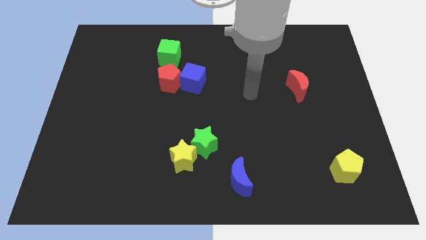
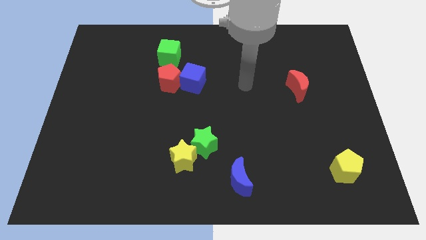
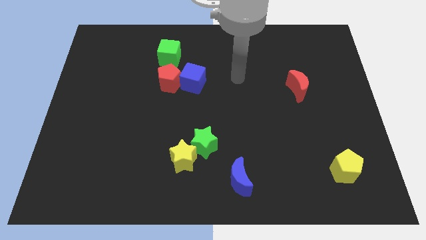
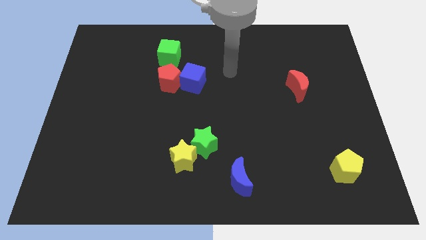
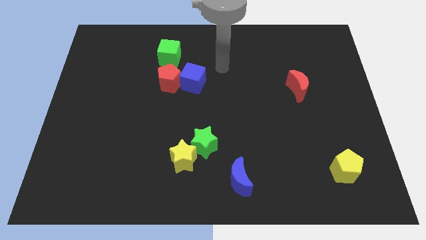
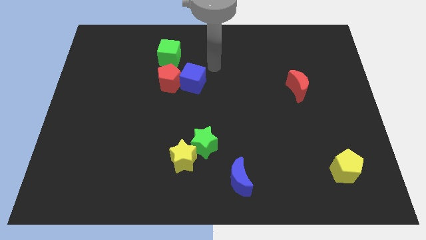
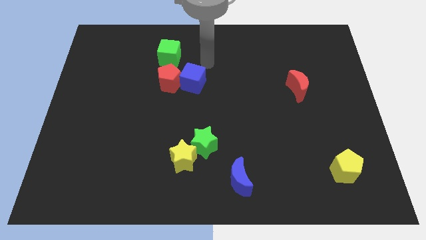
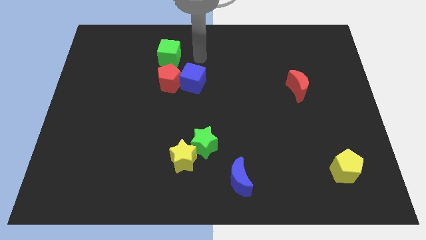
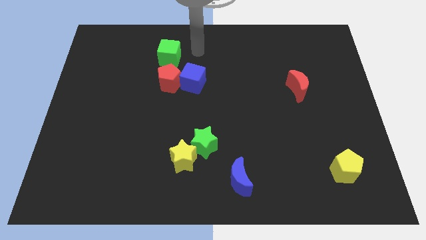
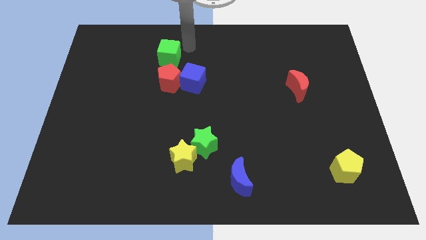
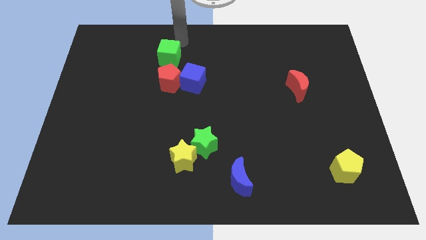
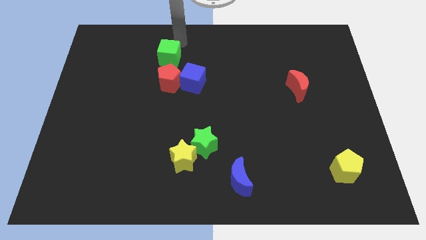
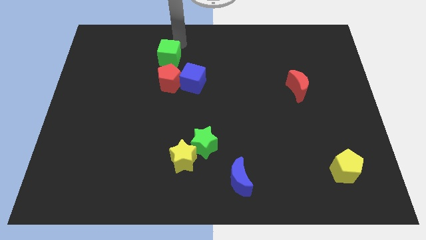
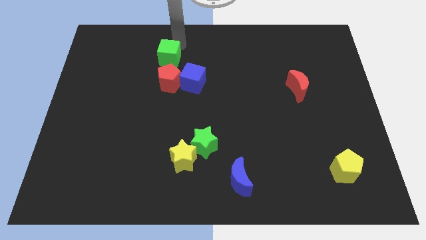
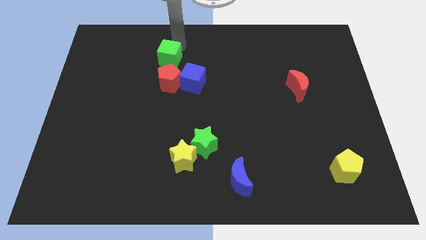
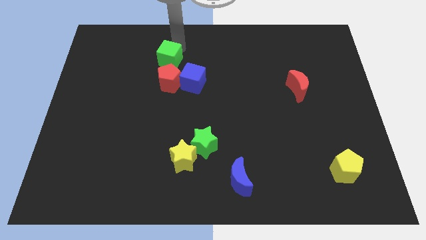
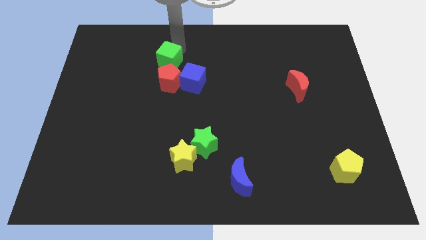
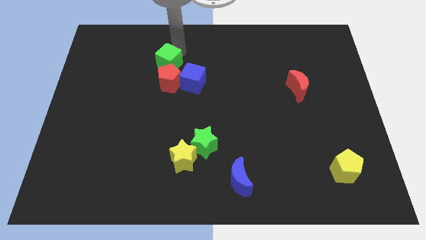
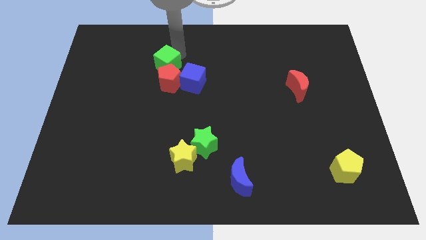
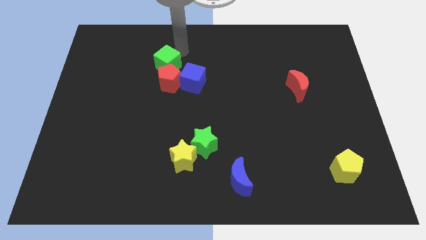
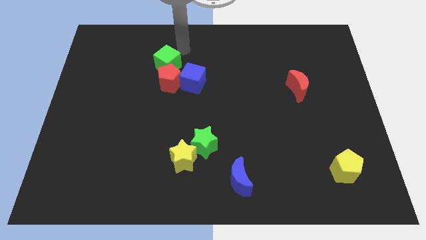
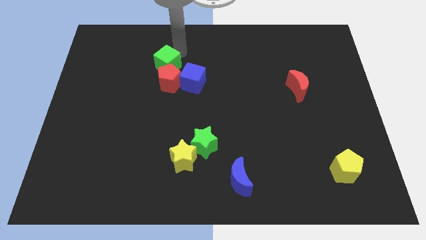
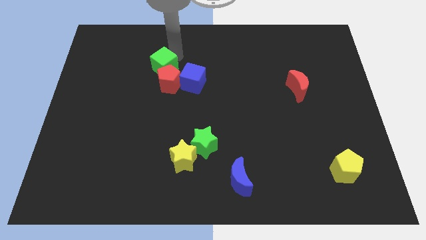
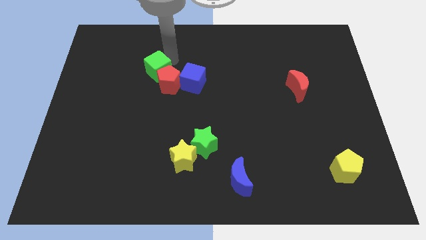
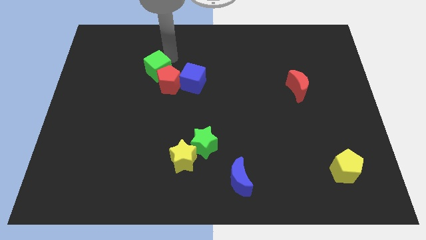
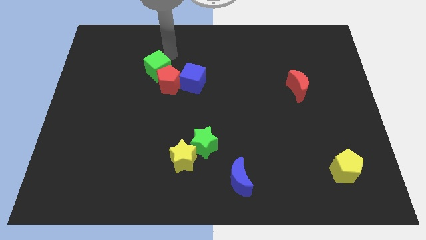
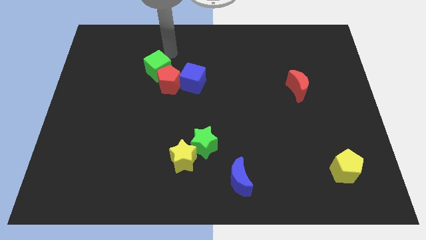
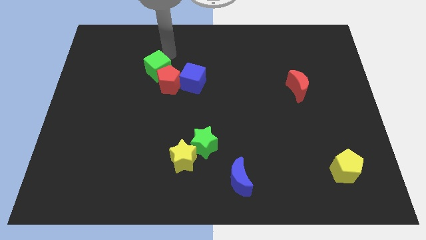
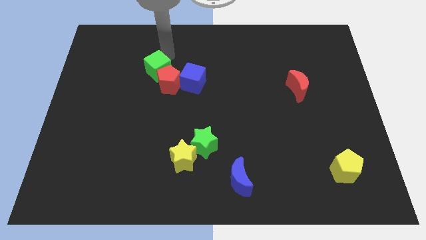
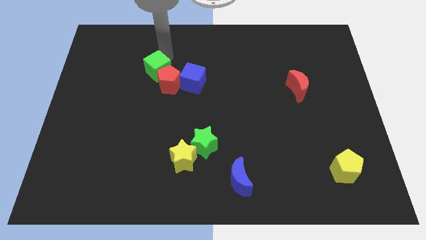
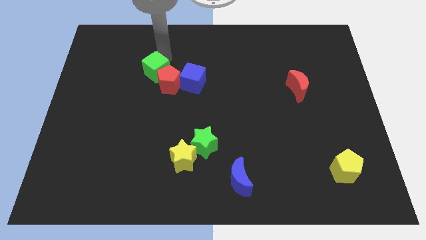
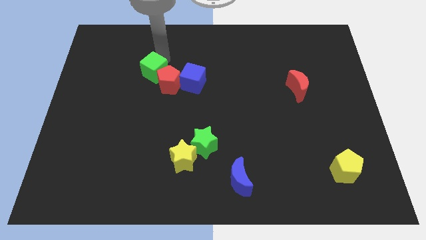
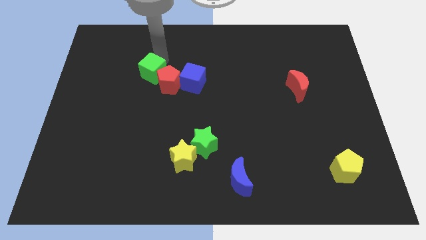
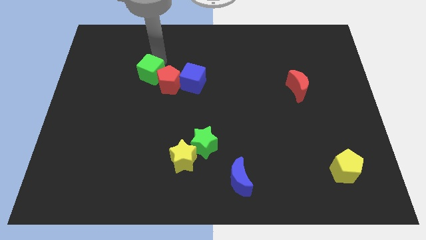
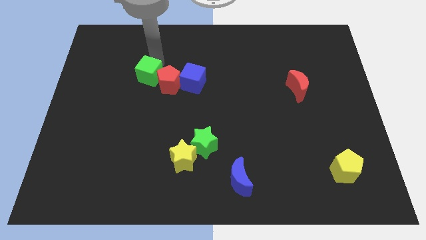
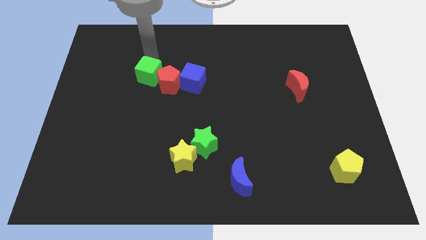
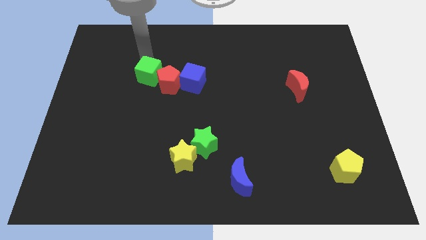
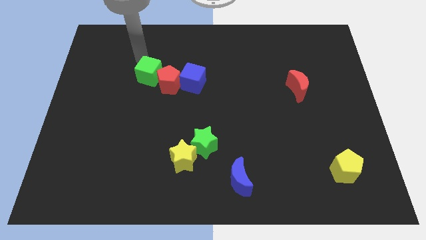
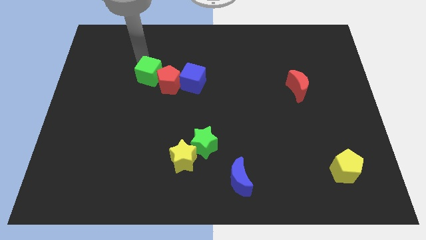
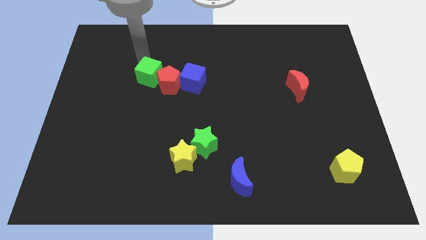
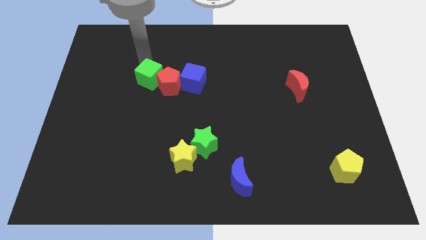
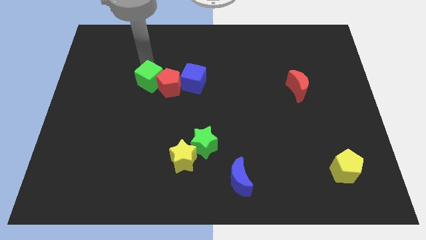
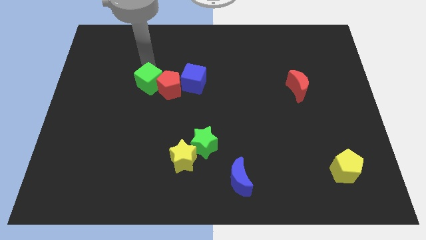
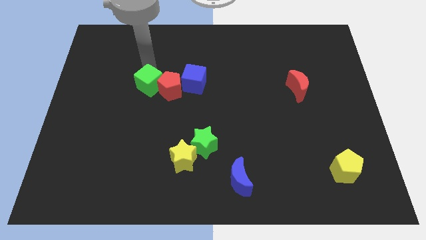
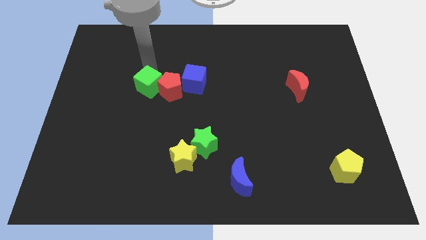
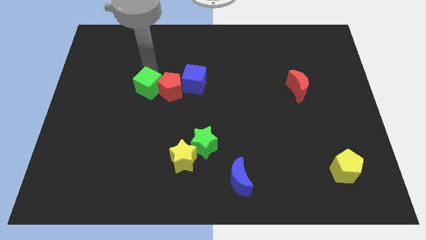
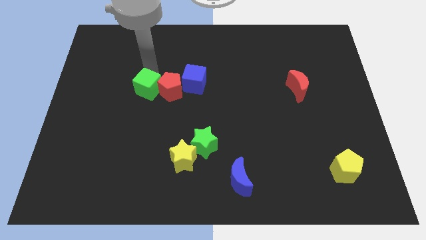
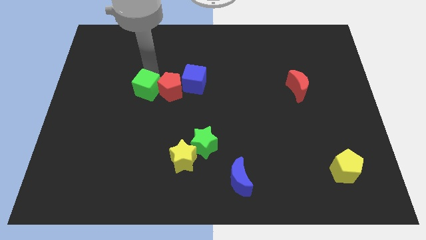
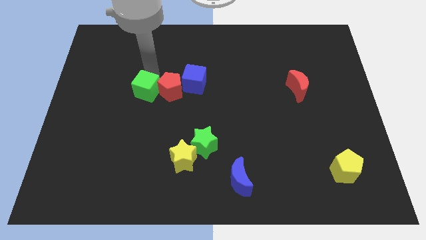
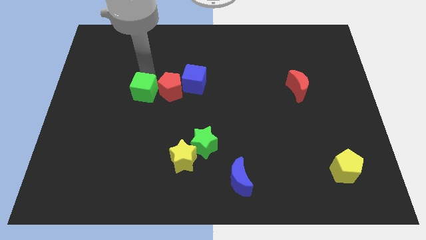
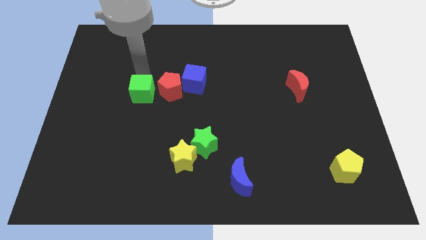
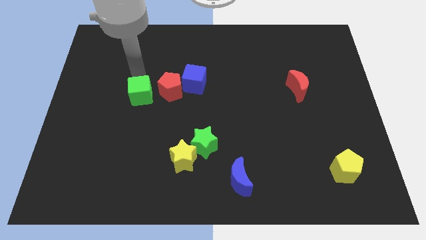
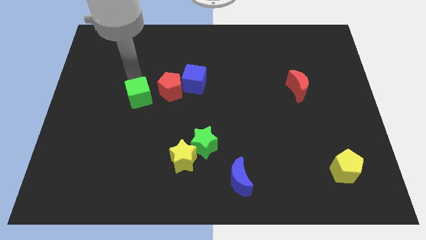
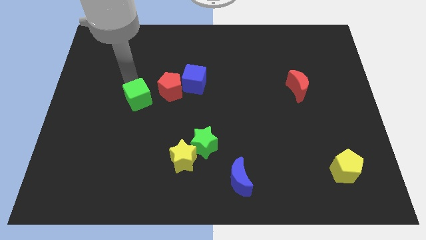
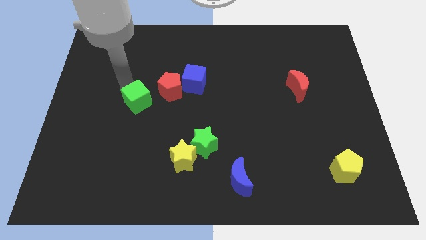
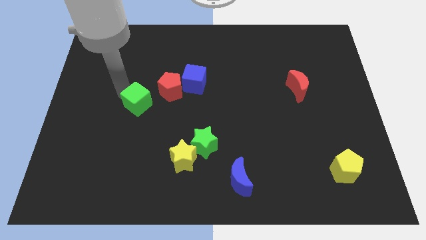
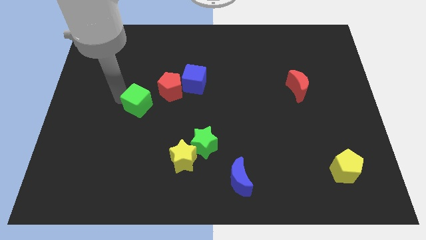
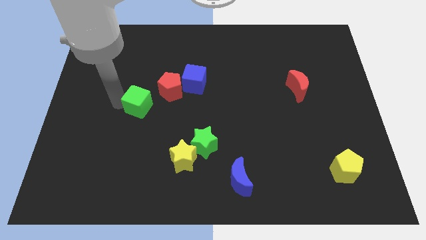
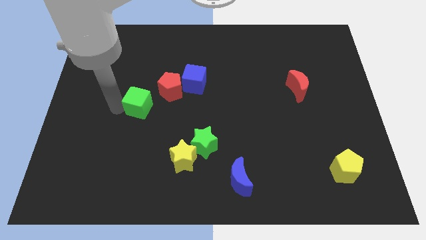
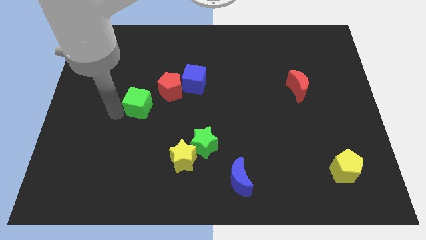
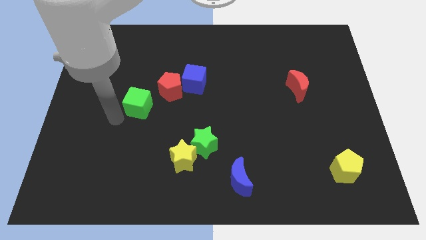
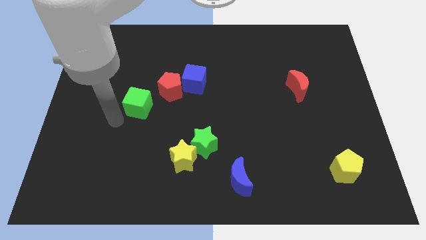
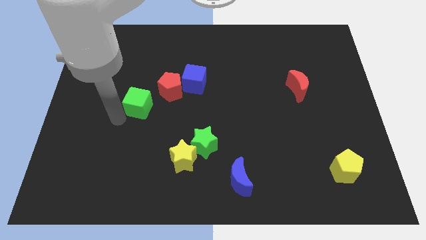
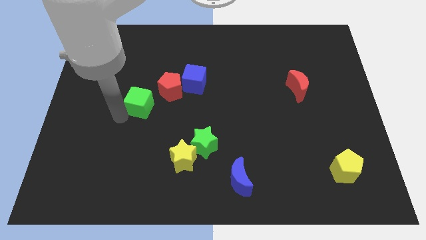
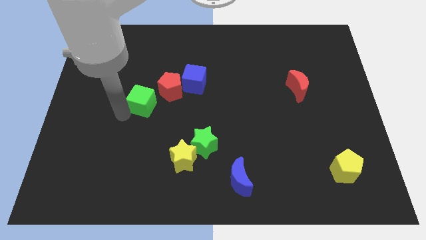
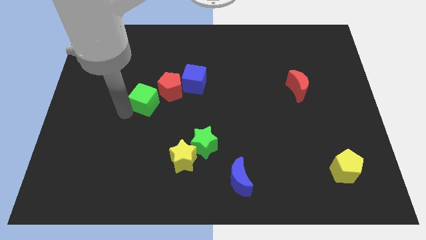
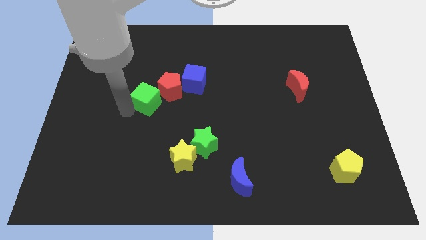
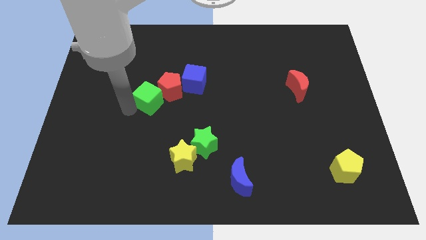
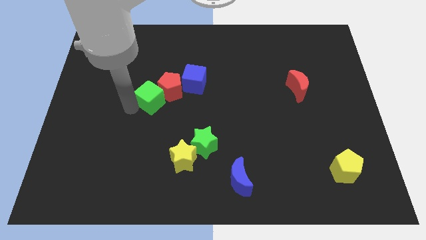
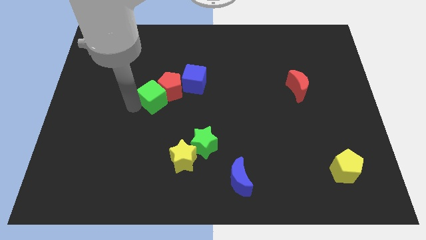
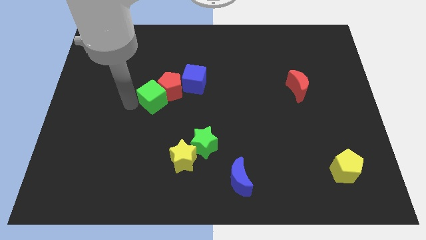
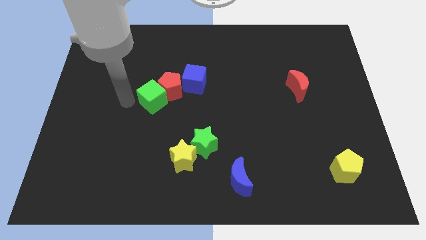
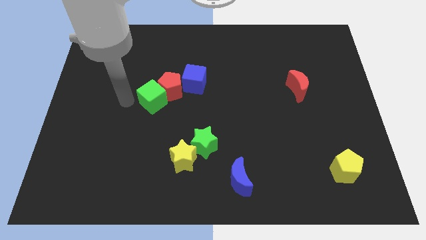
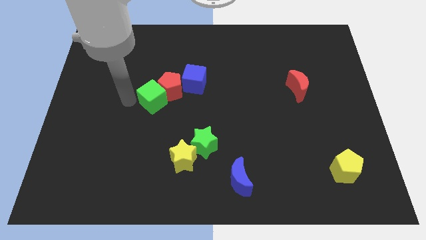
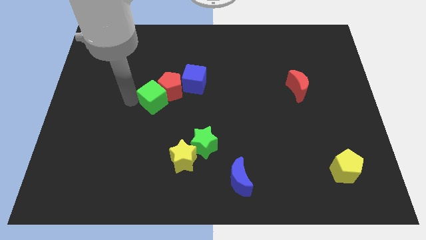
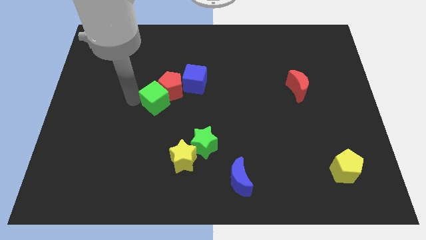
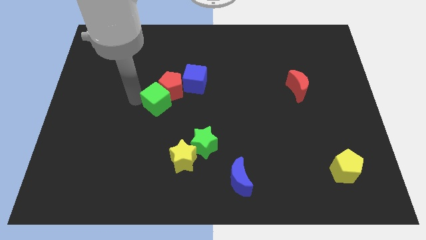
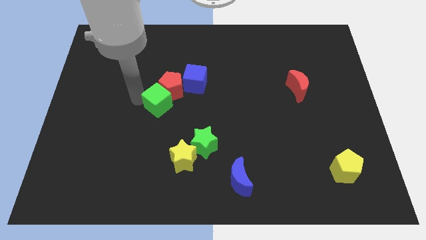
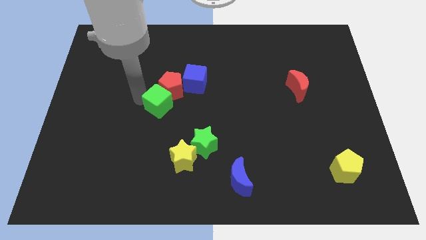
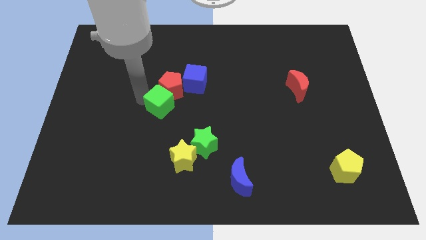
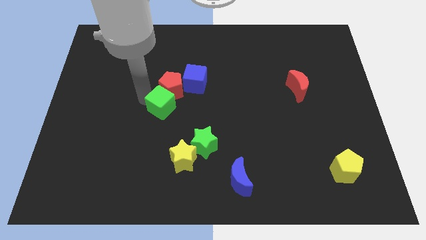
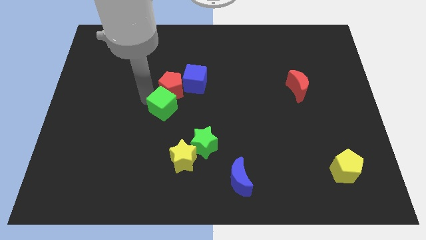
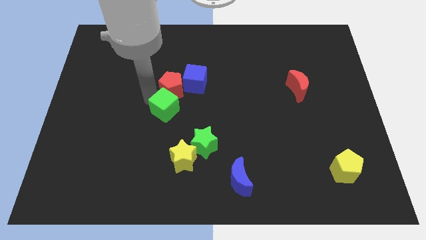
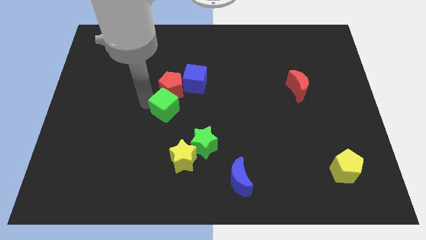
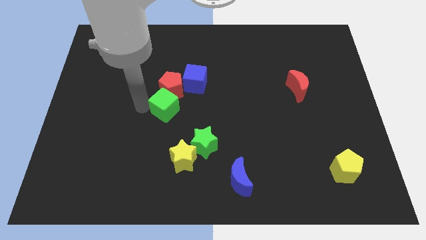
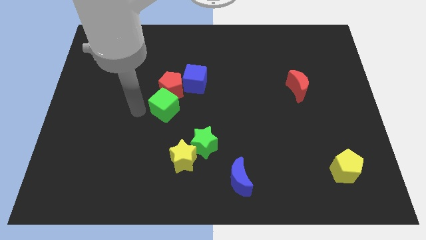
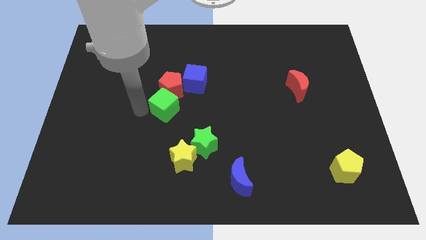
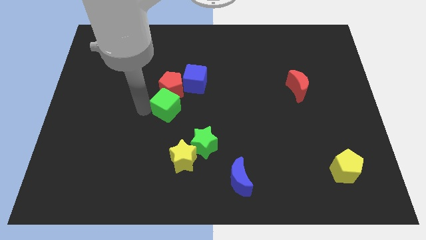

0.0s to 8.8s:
move the green cube to the bottom right side of the red pentagon
